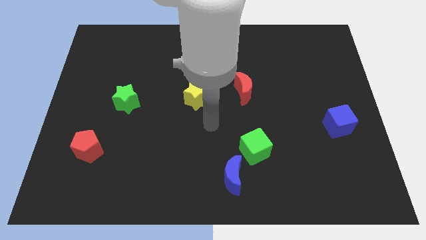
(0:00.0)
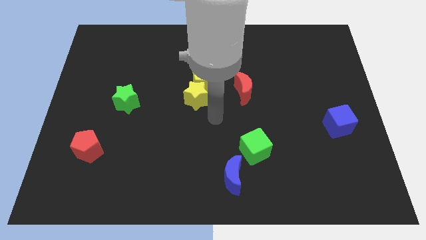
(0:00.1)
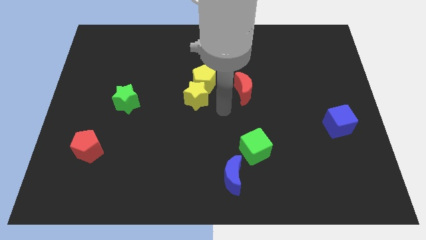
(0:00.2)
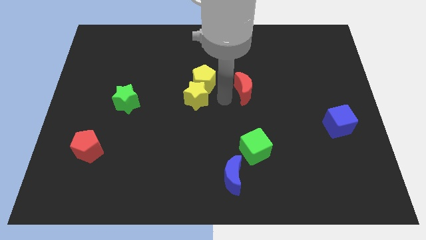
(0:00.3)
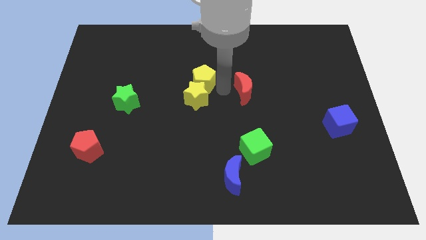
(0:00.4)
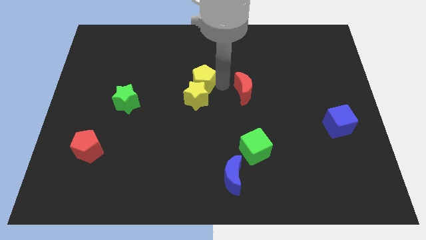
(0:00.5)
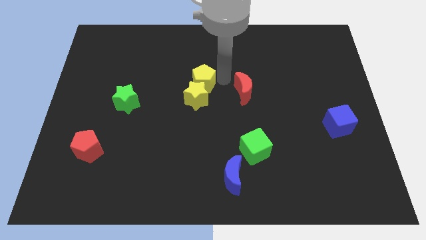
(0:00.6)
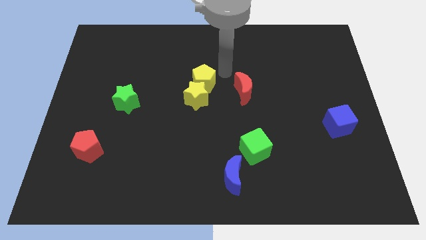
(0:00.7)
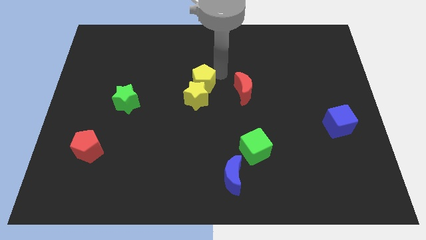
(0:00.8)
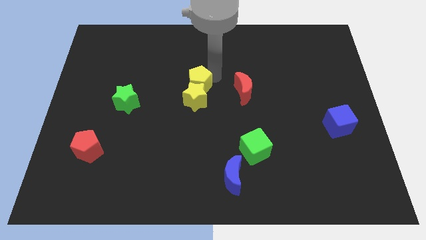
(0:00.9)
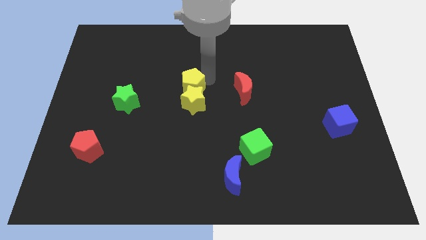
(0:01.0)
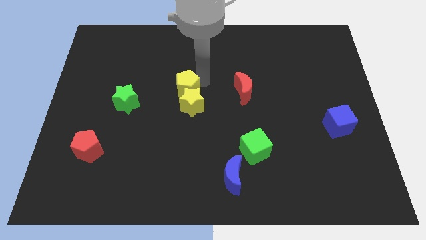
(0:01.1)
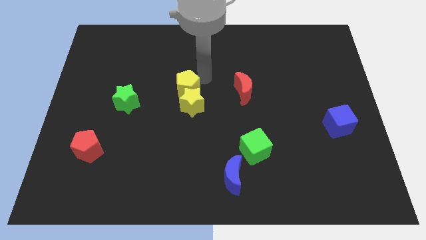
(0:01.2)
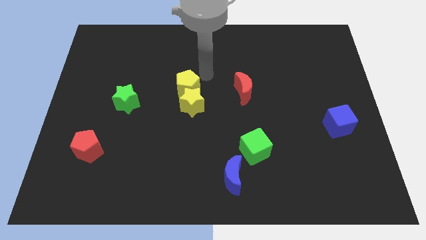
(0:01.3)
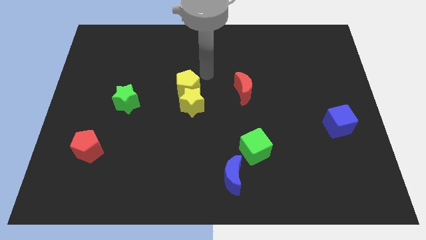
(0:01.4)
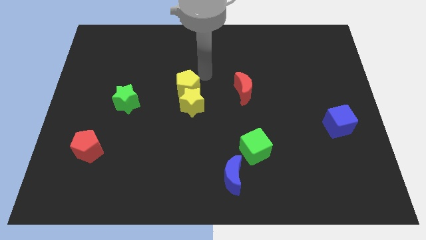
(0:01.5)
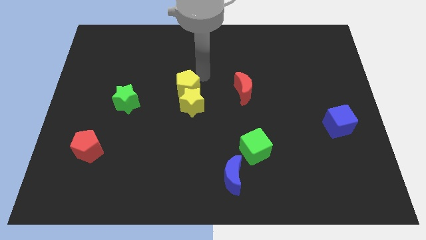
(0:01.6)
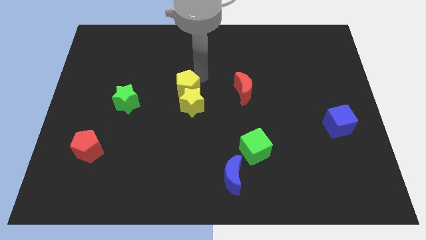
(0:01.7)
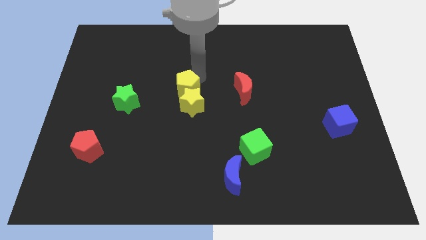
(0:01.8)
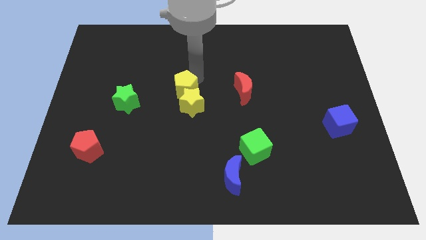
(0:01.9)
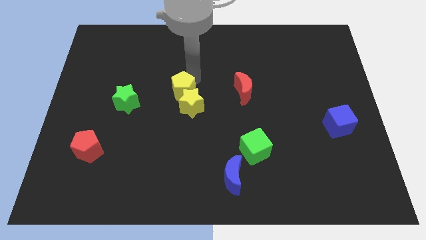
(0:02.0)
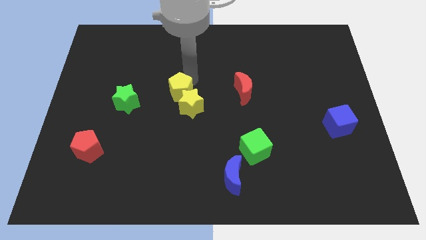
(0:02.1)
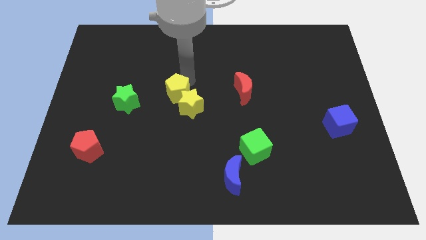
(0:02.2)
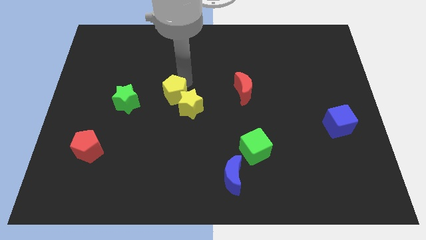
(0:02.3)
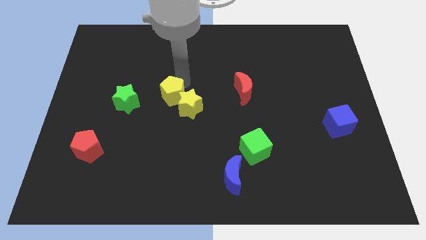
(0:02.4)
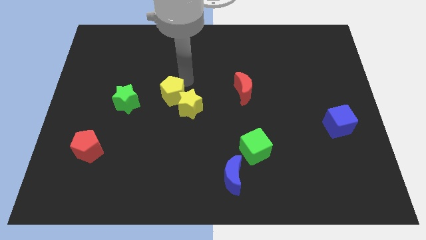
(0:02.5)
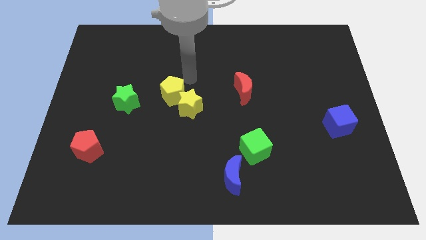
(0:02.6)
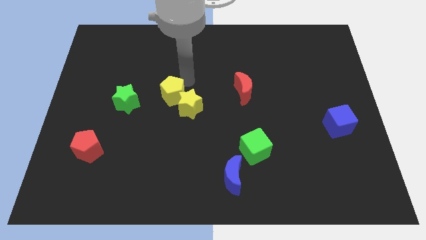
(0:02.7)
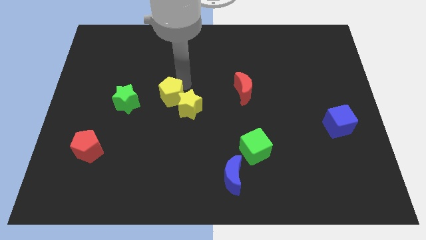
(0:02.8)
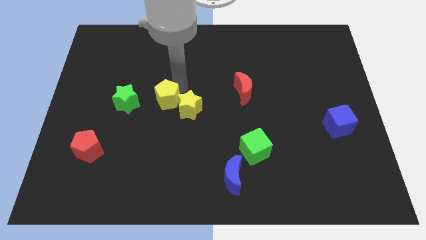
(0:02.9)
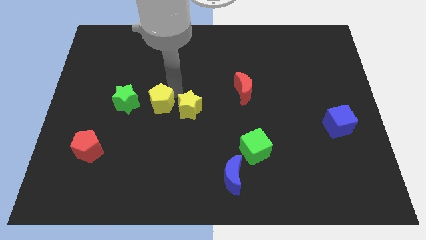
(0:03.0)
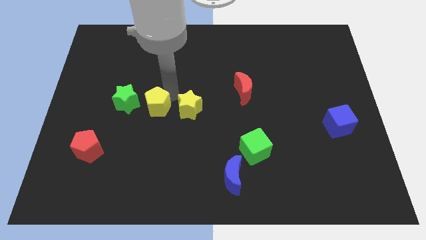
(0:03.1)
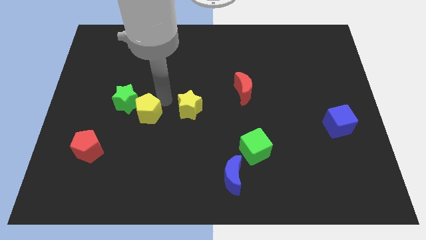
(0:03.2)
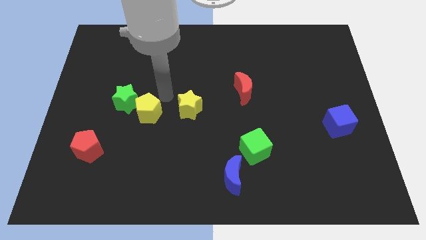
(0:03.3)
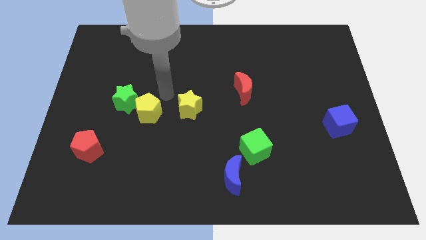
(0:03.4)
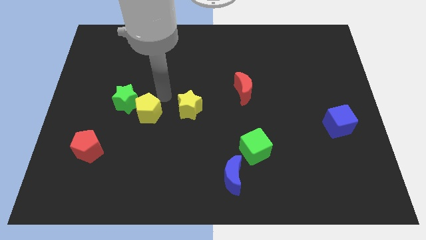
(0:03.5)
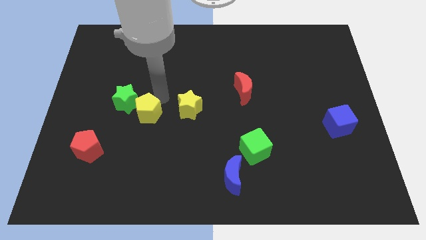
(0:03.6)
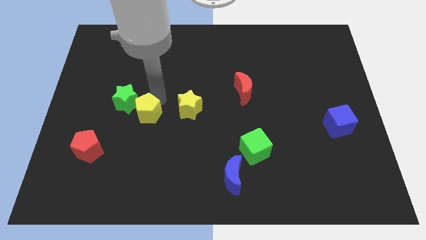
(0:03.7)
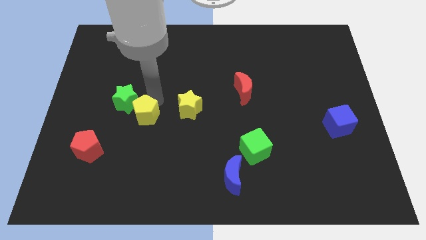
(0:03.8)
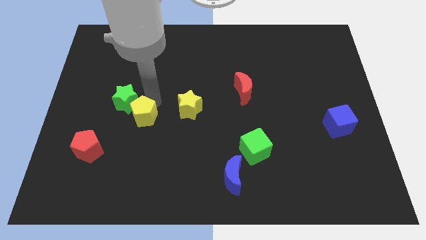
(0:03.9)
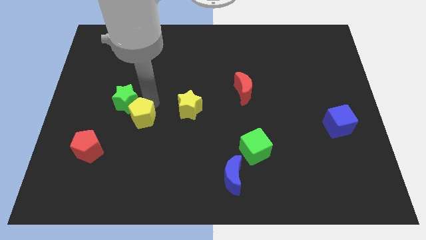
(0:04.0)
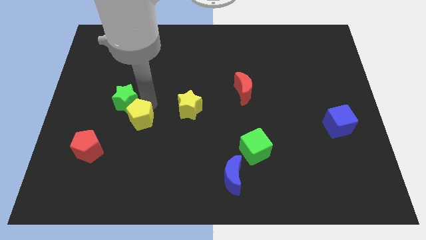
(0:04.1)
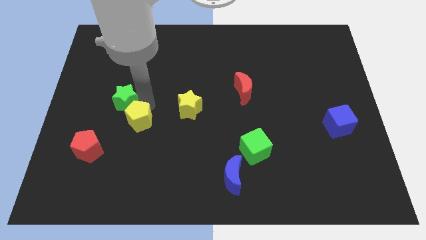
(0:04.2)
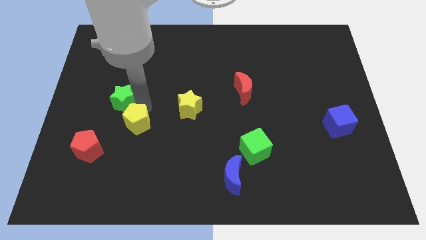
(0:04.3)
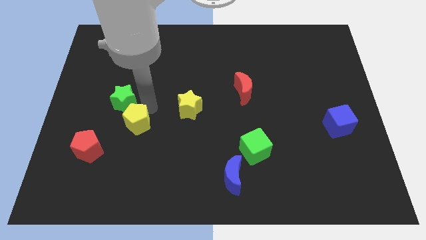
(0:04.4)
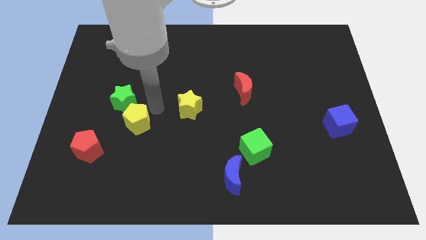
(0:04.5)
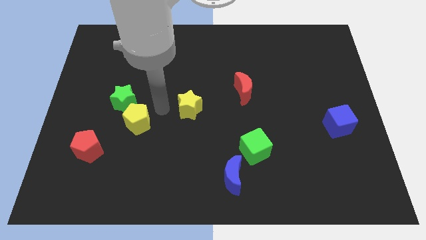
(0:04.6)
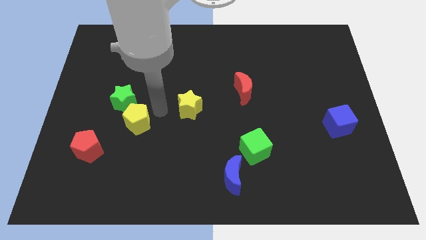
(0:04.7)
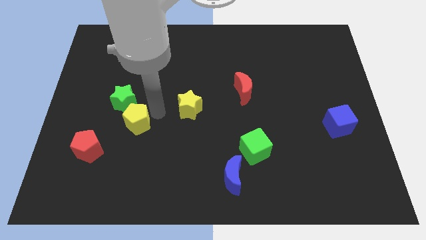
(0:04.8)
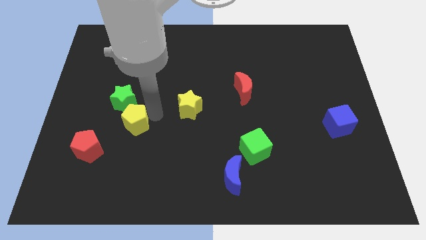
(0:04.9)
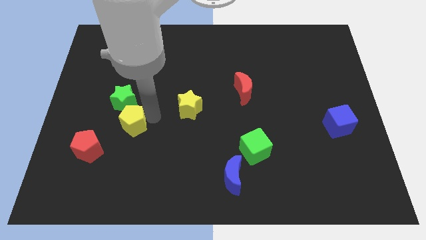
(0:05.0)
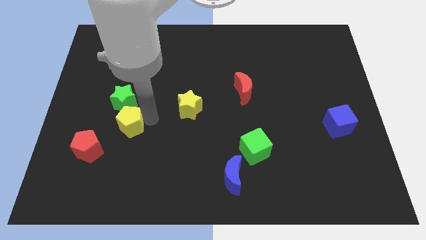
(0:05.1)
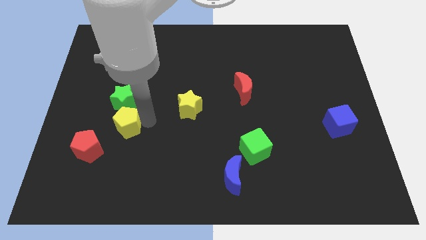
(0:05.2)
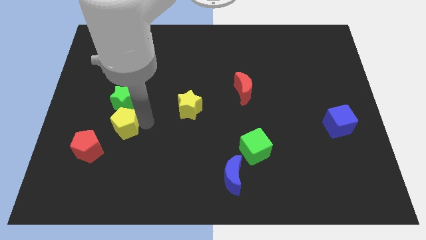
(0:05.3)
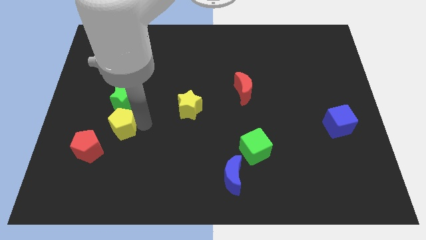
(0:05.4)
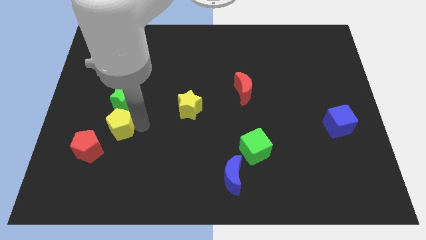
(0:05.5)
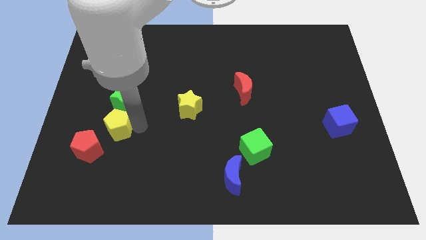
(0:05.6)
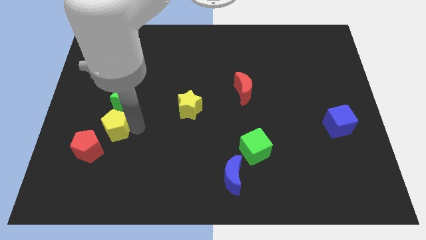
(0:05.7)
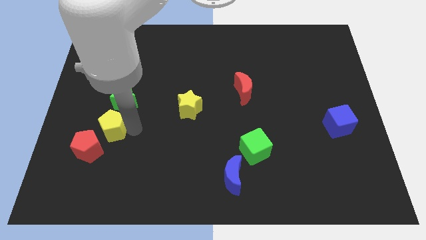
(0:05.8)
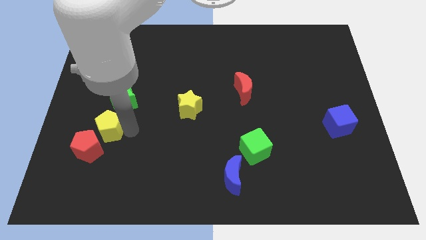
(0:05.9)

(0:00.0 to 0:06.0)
move the yellow pentagon next to the red pentagon

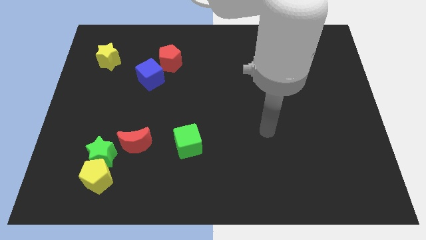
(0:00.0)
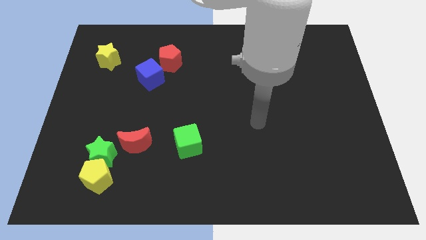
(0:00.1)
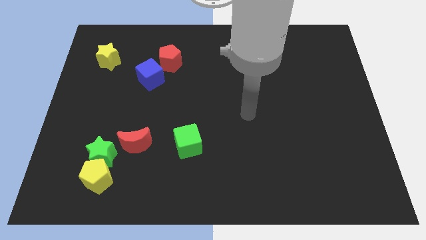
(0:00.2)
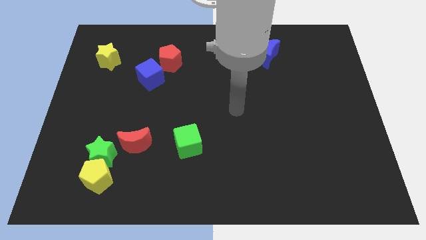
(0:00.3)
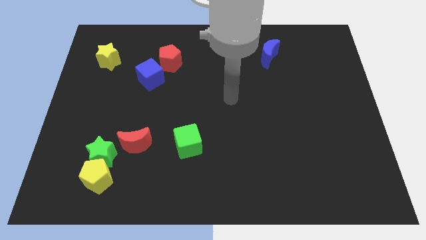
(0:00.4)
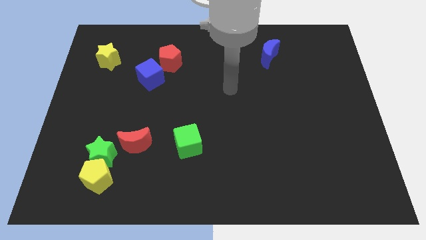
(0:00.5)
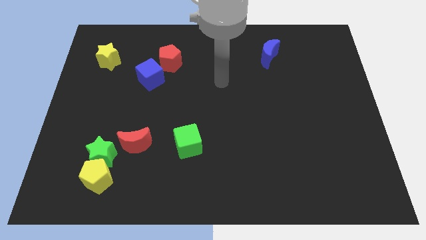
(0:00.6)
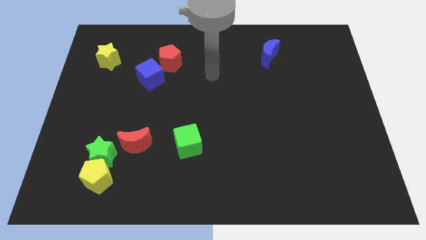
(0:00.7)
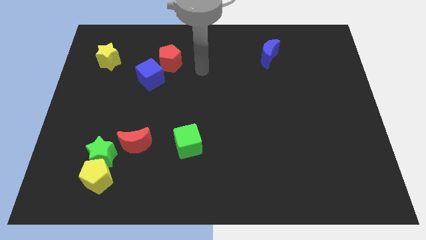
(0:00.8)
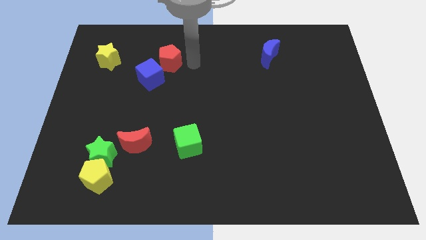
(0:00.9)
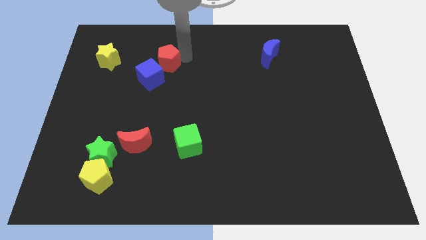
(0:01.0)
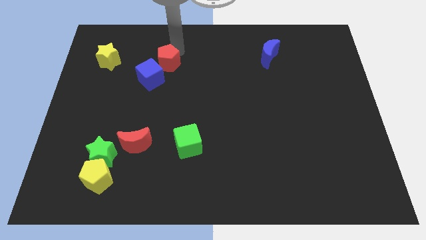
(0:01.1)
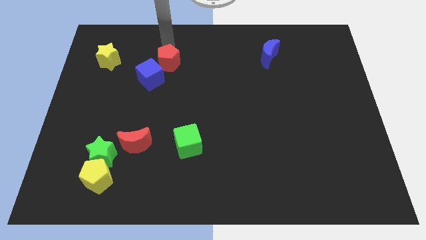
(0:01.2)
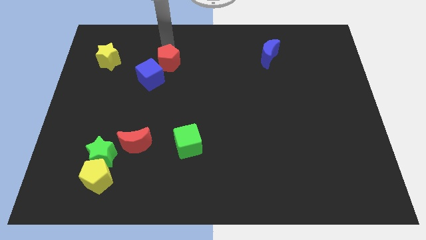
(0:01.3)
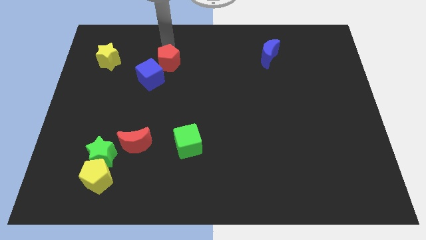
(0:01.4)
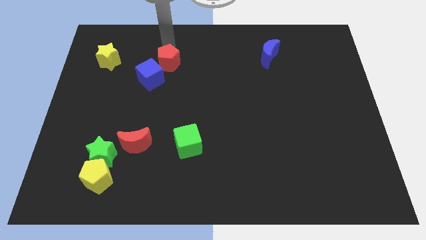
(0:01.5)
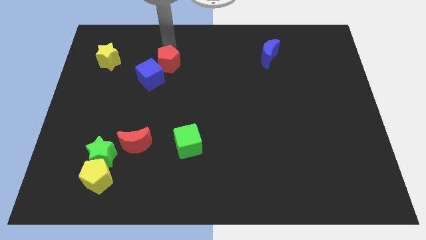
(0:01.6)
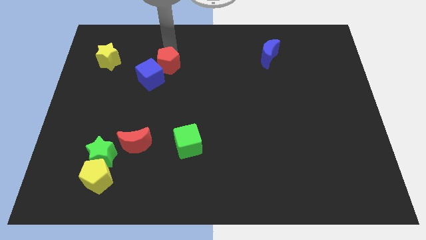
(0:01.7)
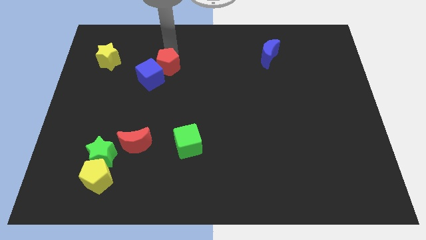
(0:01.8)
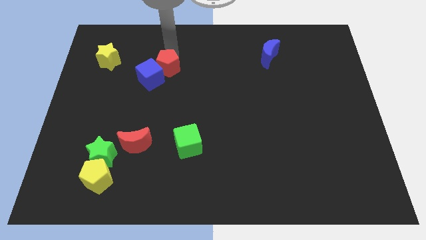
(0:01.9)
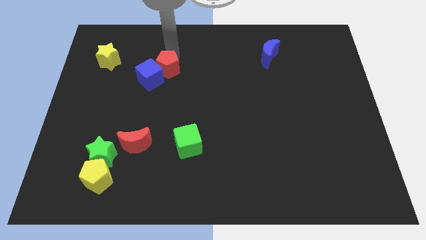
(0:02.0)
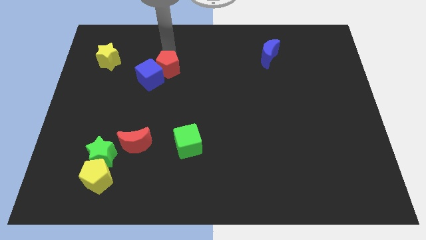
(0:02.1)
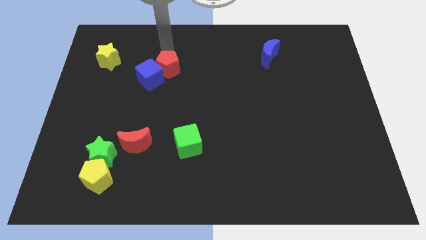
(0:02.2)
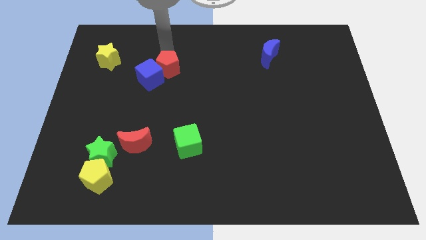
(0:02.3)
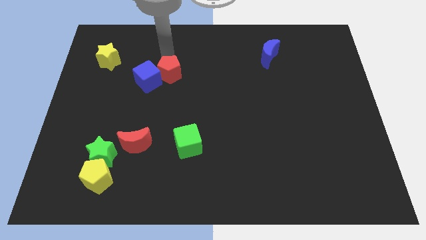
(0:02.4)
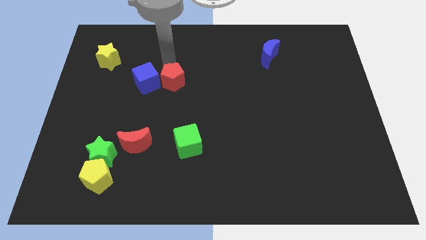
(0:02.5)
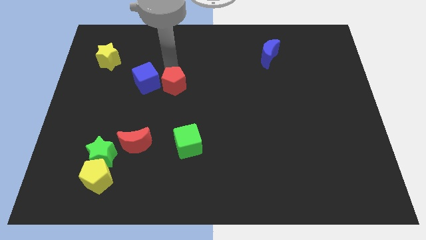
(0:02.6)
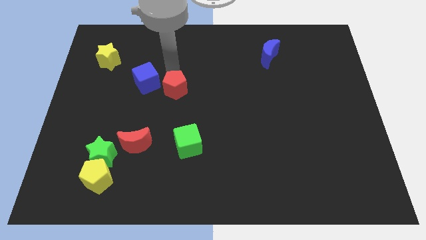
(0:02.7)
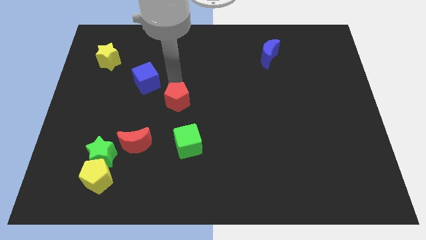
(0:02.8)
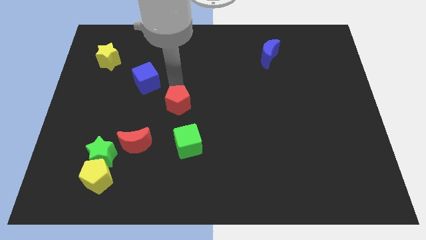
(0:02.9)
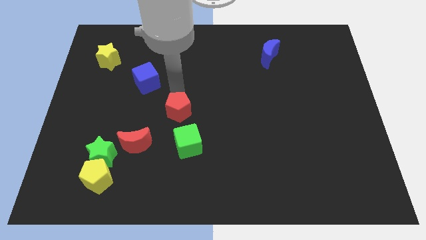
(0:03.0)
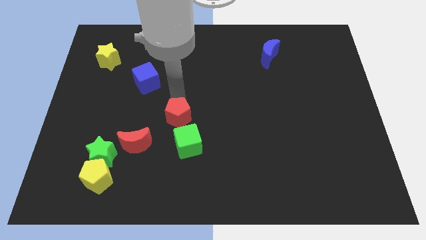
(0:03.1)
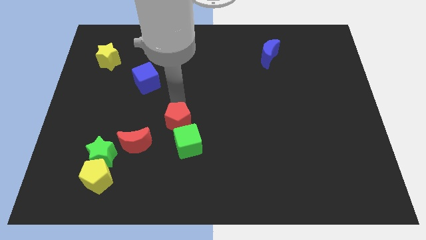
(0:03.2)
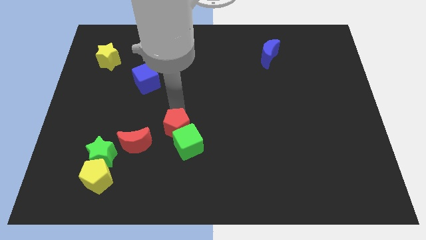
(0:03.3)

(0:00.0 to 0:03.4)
push the red pentagon next to the green cube
